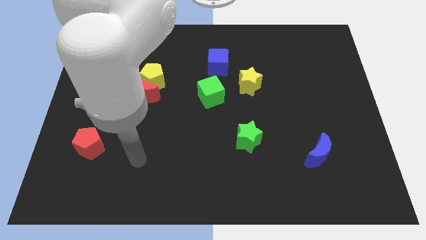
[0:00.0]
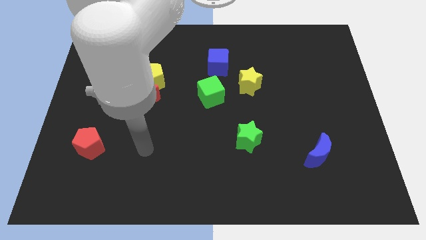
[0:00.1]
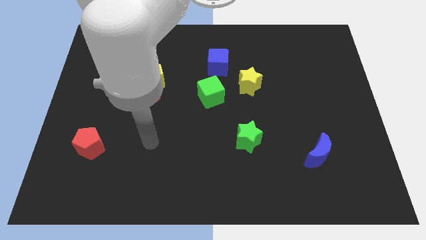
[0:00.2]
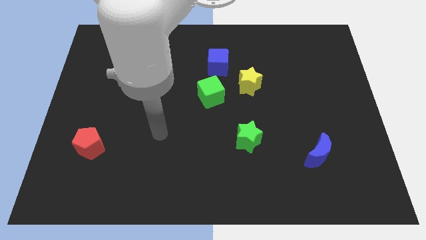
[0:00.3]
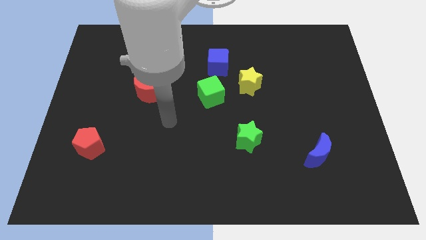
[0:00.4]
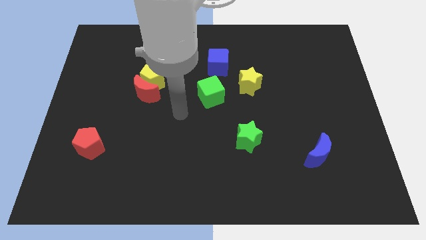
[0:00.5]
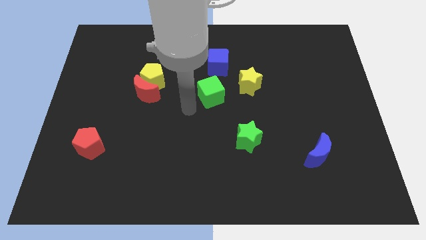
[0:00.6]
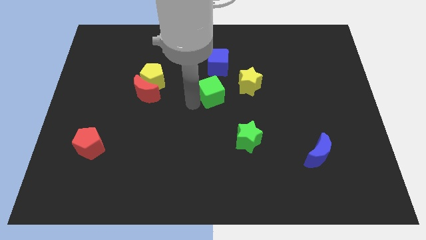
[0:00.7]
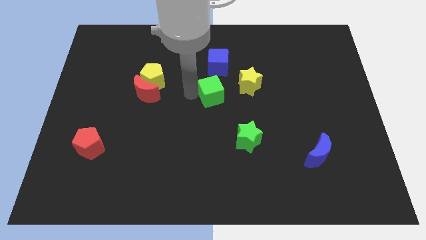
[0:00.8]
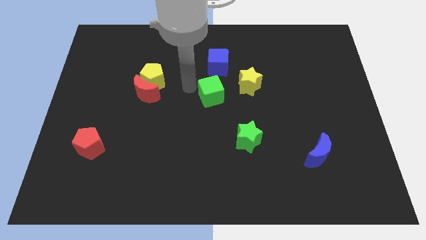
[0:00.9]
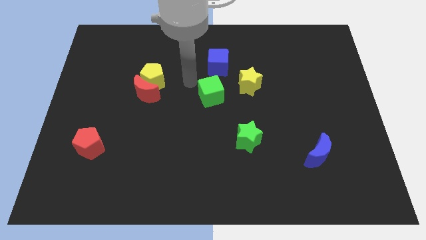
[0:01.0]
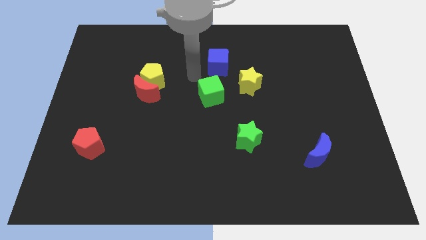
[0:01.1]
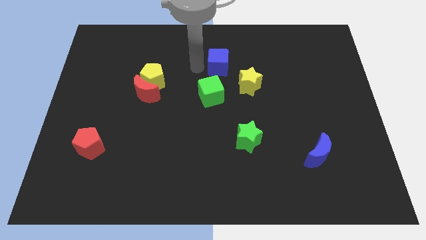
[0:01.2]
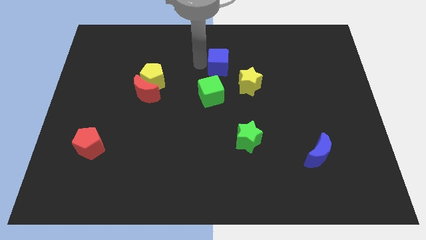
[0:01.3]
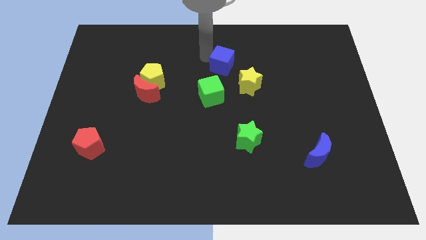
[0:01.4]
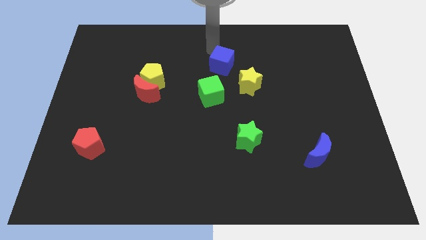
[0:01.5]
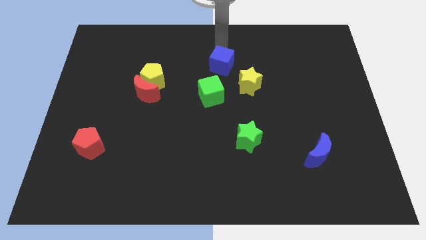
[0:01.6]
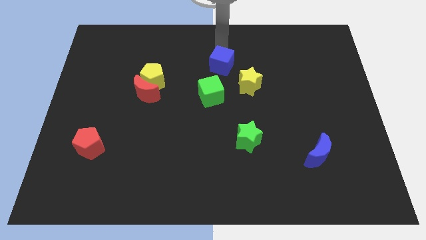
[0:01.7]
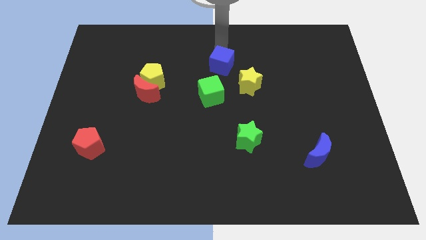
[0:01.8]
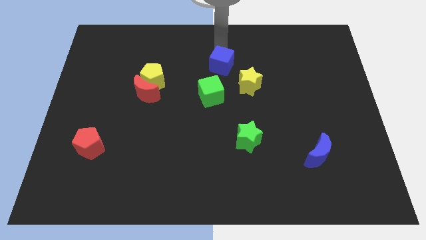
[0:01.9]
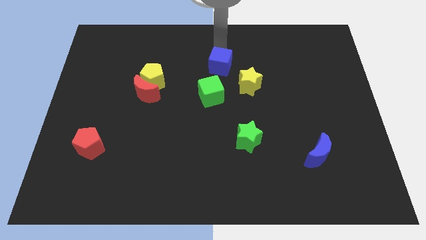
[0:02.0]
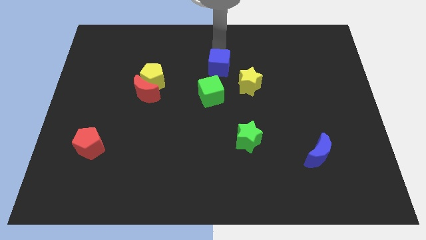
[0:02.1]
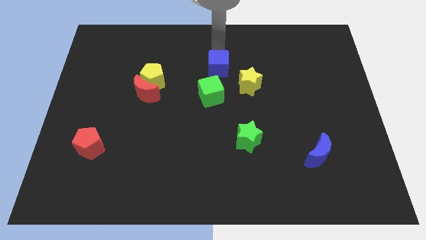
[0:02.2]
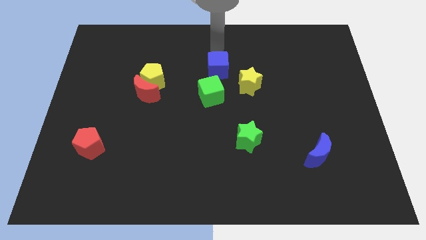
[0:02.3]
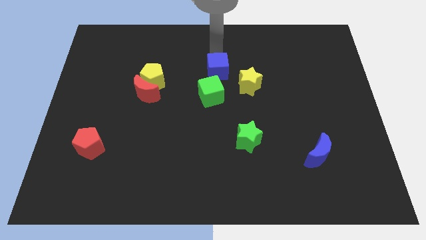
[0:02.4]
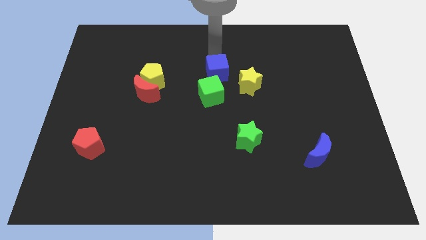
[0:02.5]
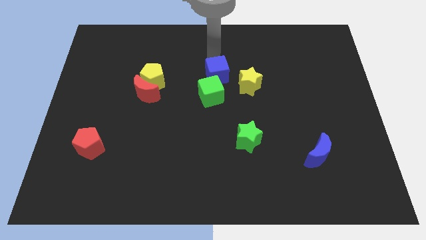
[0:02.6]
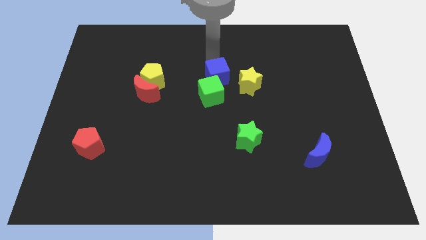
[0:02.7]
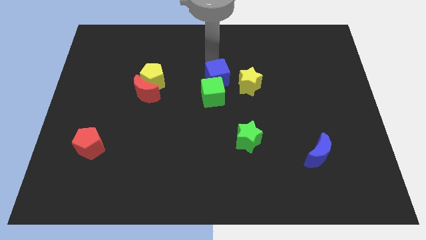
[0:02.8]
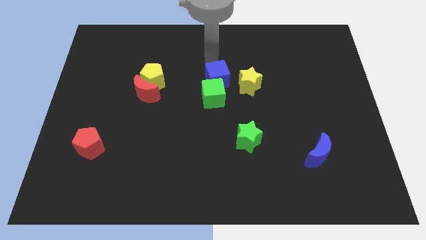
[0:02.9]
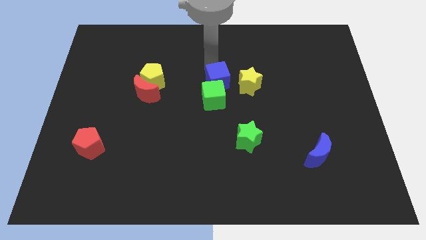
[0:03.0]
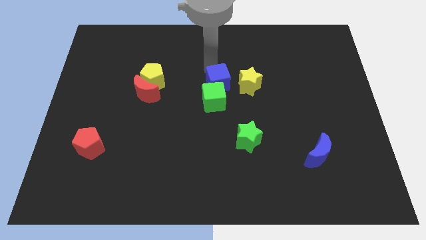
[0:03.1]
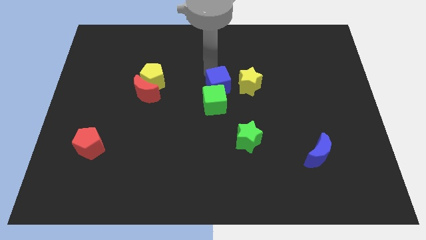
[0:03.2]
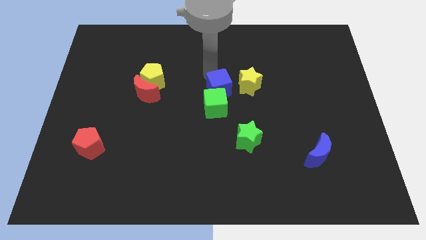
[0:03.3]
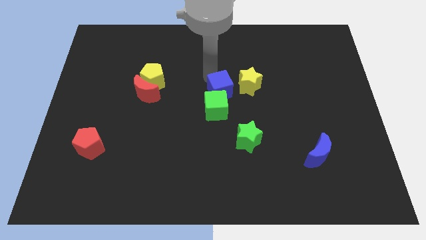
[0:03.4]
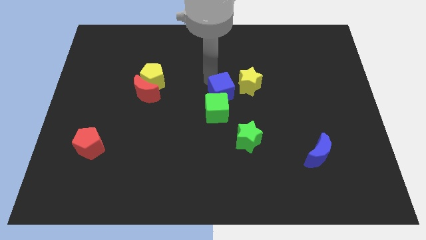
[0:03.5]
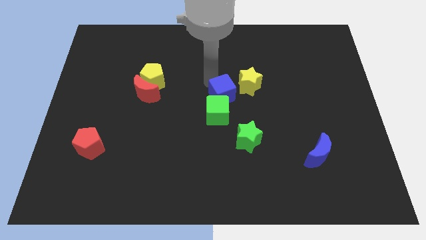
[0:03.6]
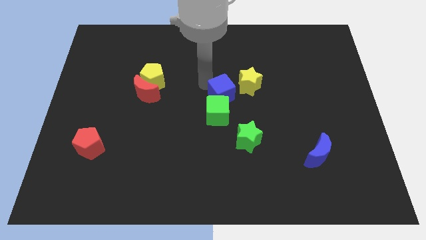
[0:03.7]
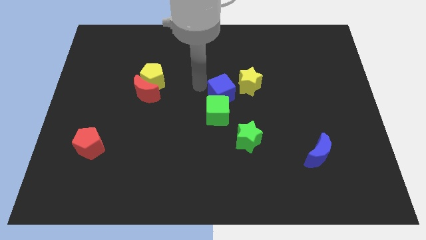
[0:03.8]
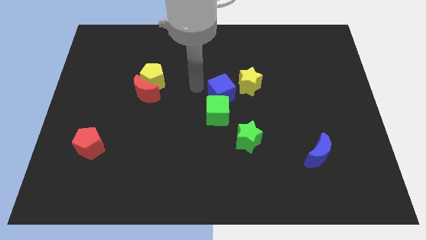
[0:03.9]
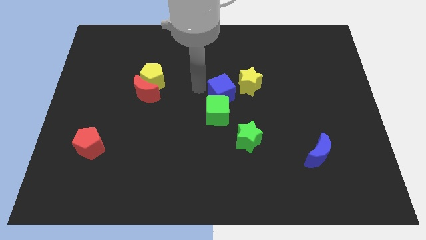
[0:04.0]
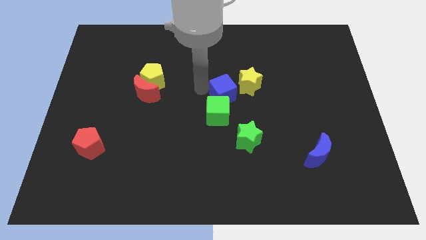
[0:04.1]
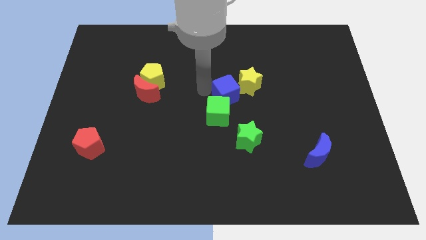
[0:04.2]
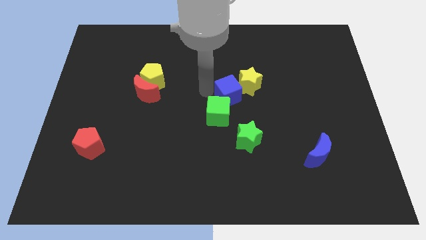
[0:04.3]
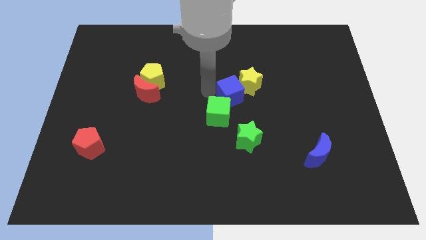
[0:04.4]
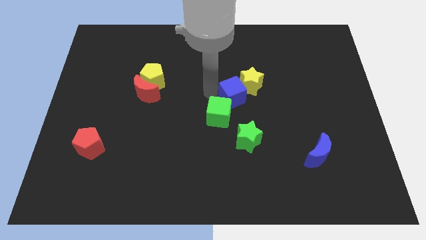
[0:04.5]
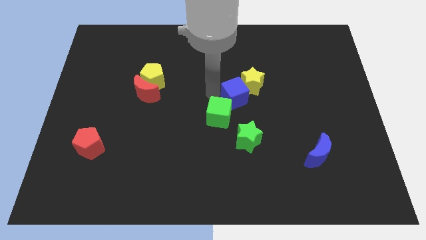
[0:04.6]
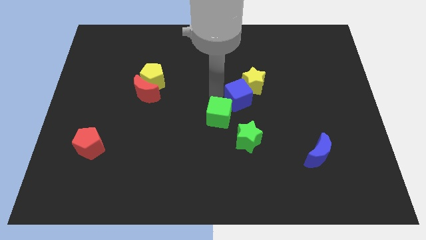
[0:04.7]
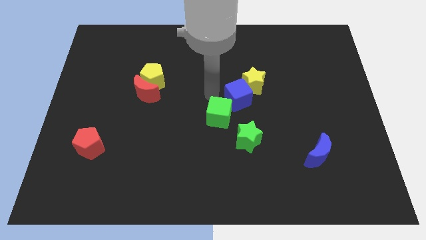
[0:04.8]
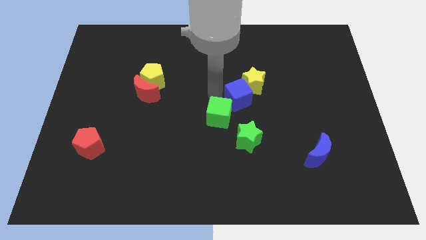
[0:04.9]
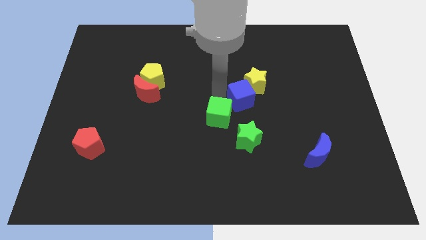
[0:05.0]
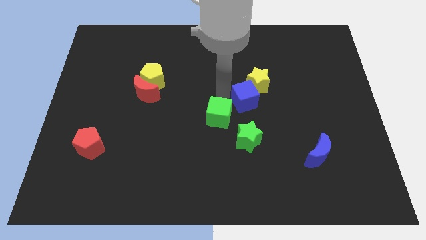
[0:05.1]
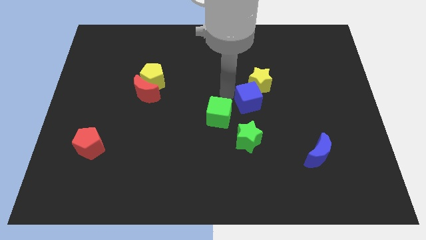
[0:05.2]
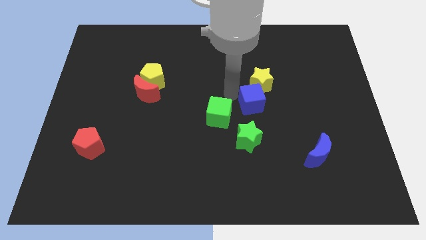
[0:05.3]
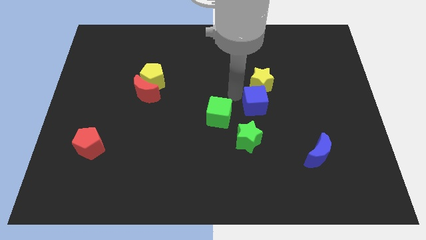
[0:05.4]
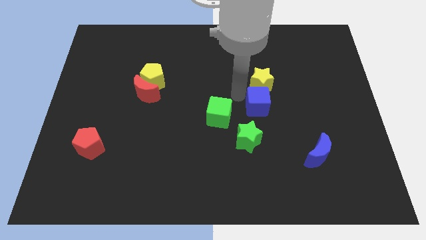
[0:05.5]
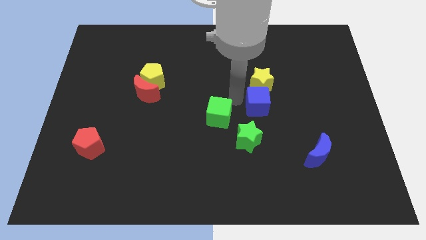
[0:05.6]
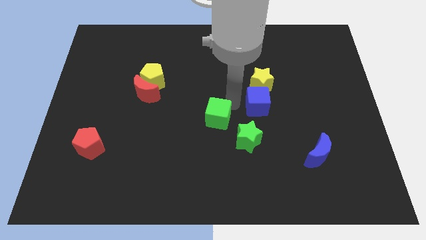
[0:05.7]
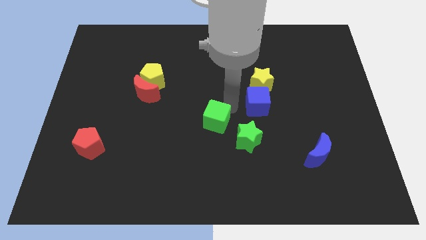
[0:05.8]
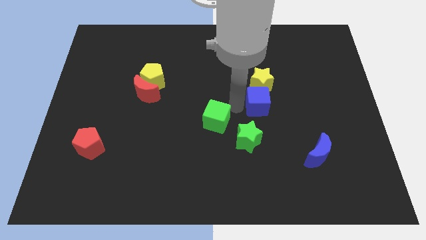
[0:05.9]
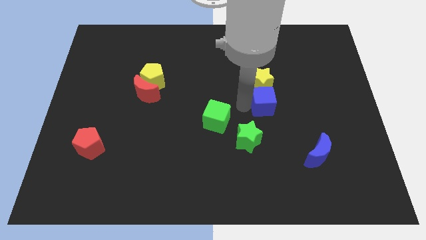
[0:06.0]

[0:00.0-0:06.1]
slide the blue cube to the bottom right of the yellow star

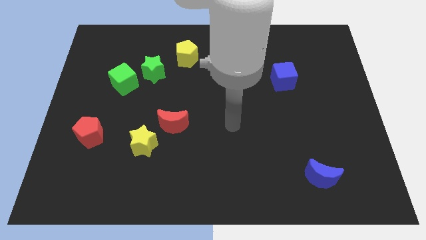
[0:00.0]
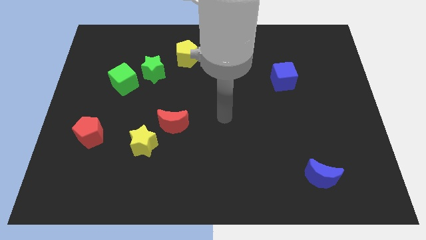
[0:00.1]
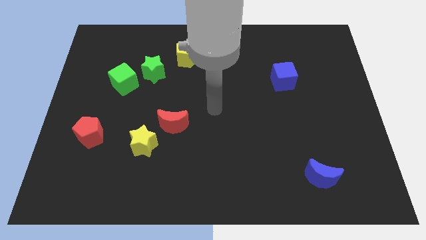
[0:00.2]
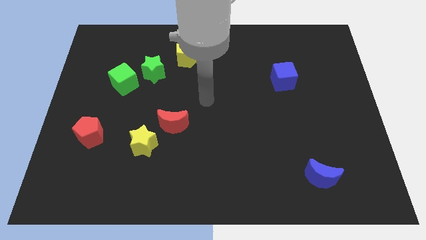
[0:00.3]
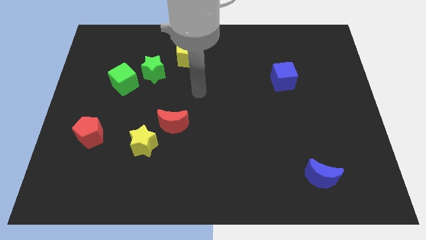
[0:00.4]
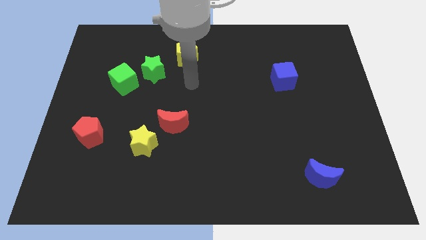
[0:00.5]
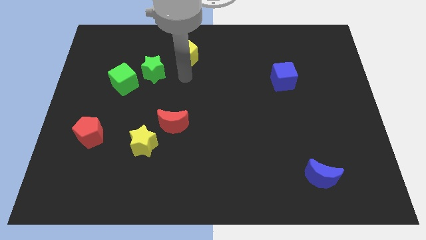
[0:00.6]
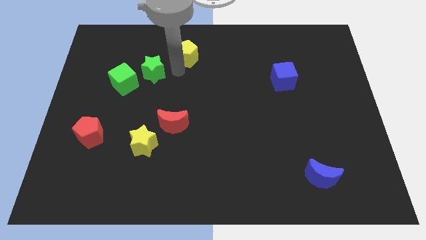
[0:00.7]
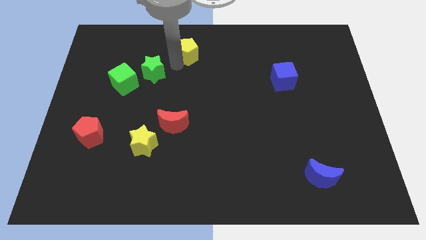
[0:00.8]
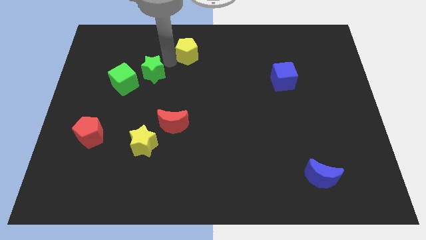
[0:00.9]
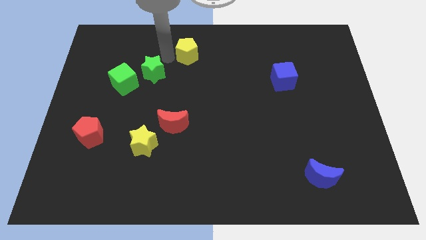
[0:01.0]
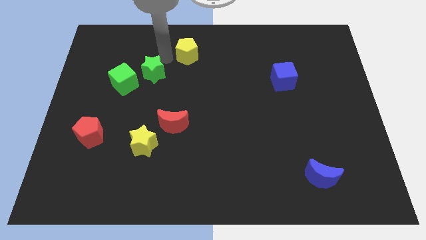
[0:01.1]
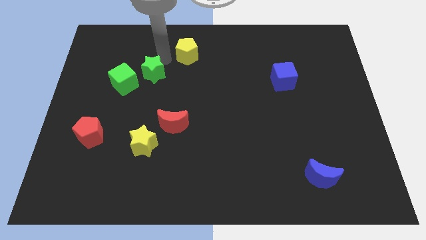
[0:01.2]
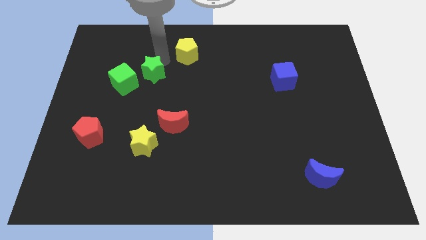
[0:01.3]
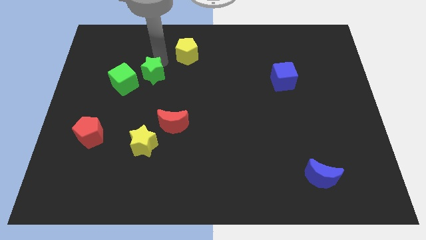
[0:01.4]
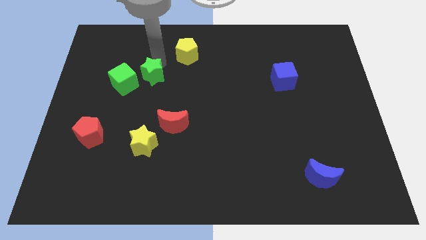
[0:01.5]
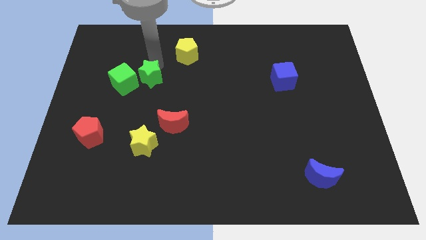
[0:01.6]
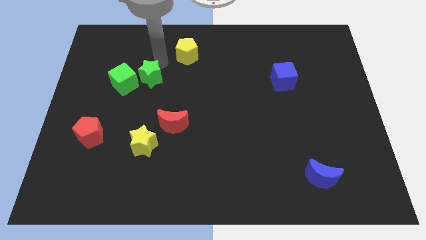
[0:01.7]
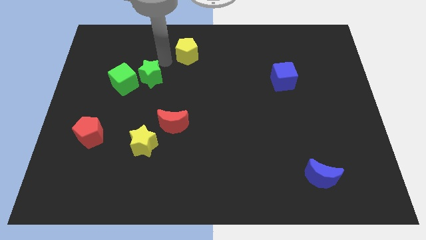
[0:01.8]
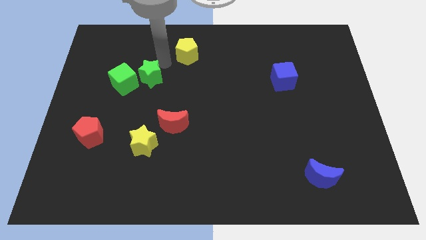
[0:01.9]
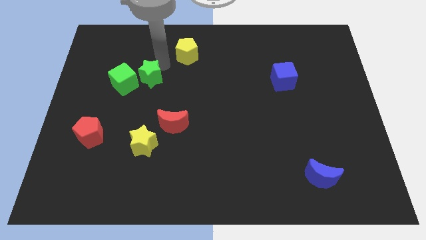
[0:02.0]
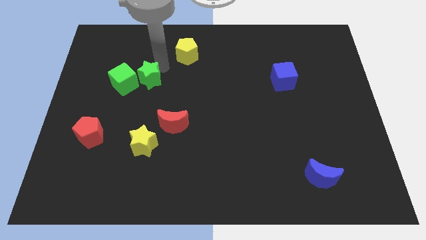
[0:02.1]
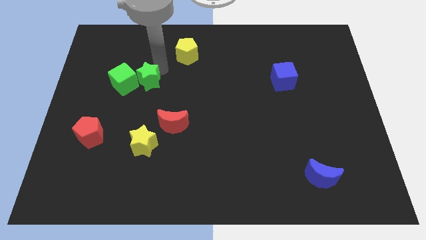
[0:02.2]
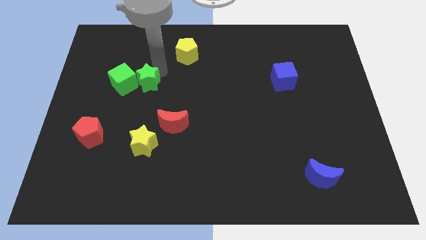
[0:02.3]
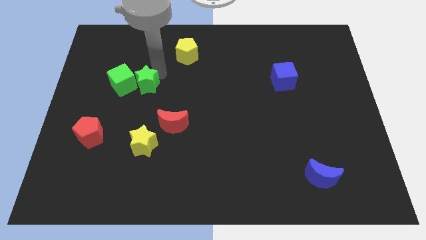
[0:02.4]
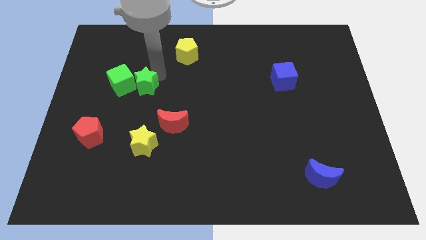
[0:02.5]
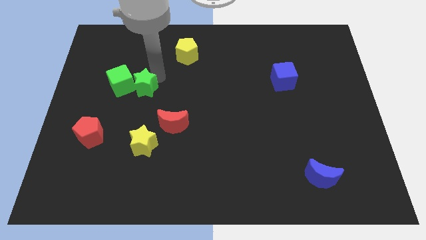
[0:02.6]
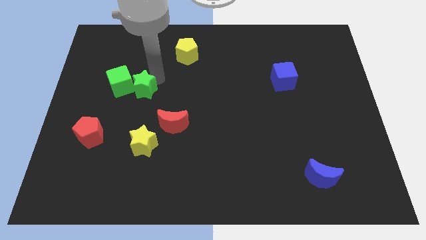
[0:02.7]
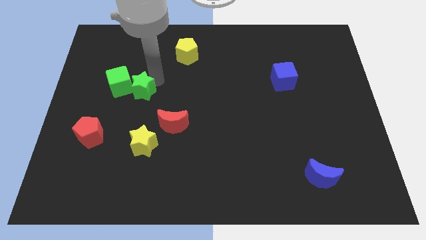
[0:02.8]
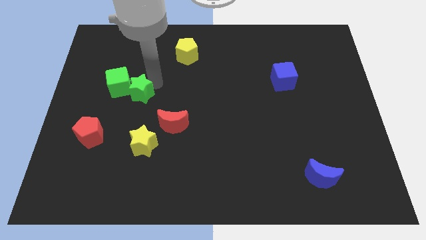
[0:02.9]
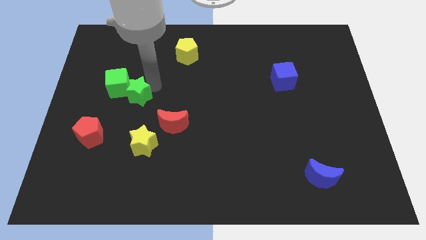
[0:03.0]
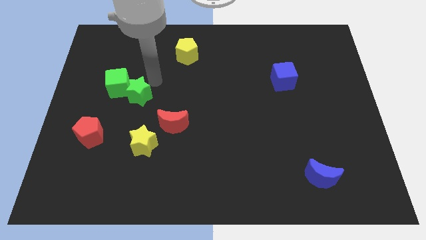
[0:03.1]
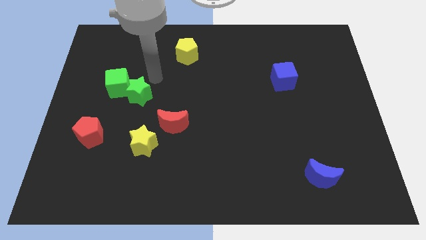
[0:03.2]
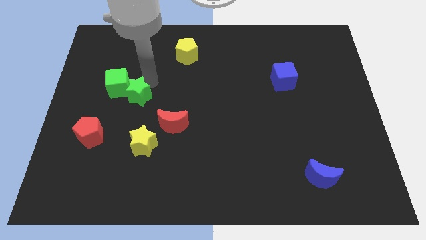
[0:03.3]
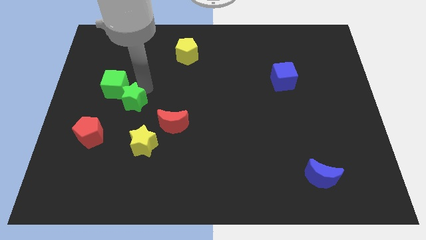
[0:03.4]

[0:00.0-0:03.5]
slide the green star diagonally up and to the right of the red pentagon
